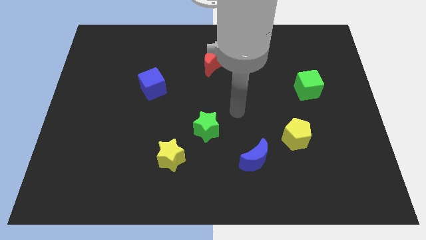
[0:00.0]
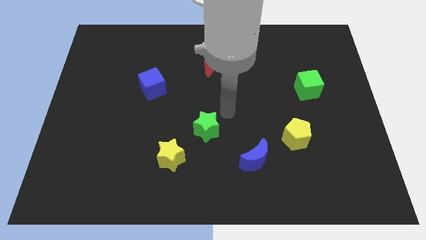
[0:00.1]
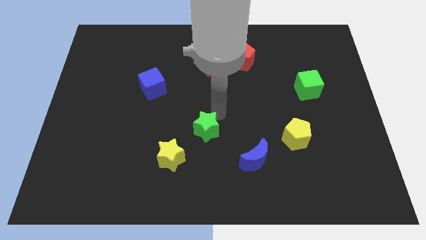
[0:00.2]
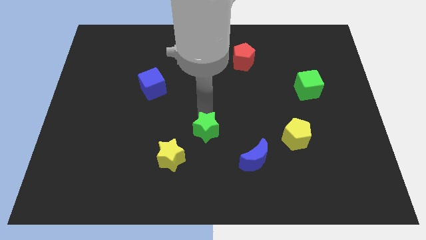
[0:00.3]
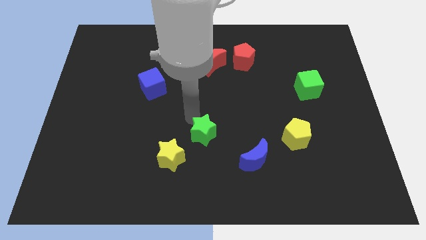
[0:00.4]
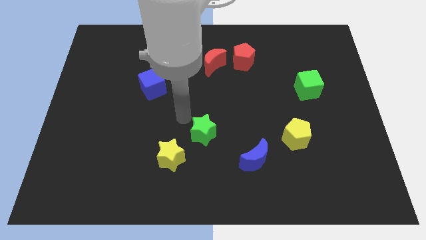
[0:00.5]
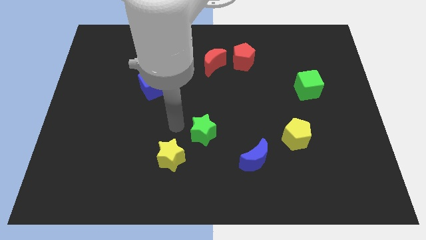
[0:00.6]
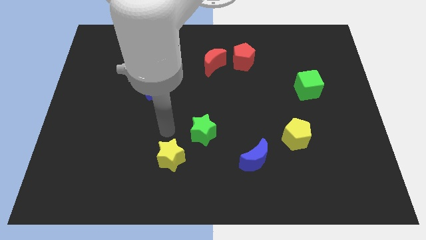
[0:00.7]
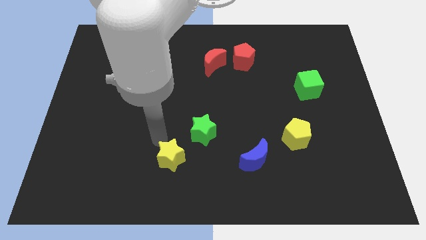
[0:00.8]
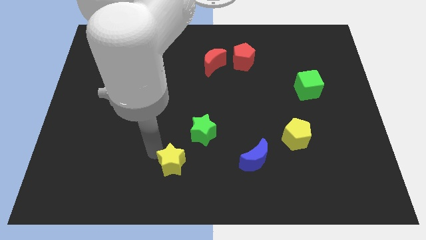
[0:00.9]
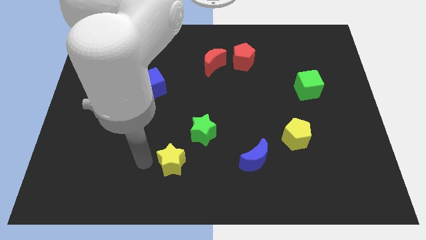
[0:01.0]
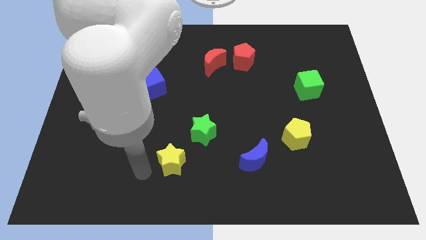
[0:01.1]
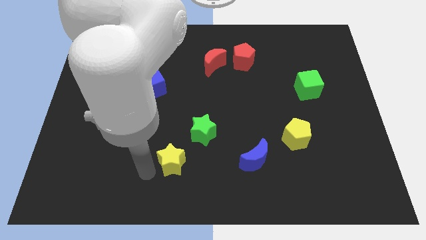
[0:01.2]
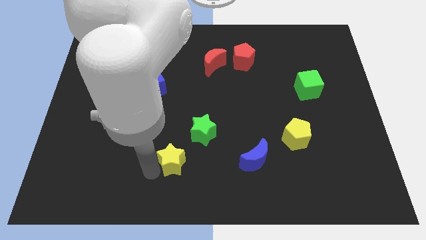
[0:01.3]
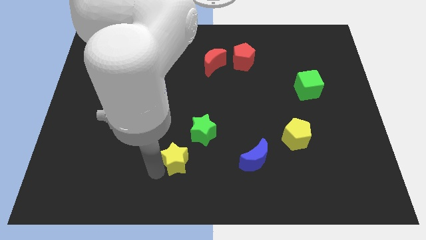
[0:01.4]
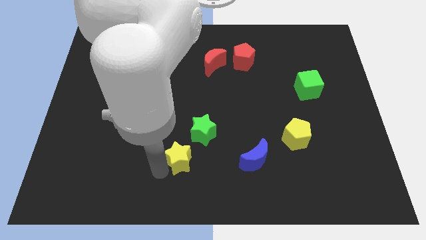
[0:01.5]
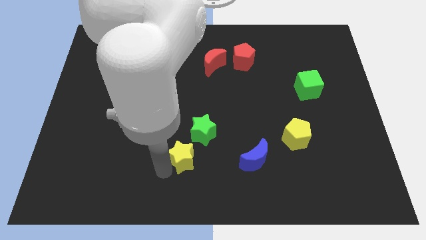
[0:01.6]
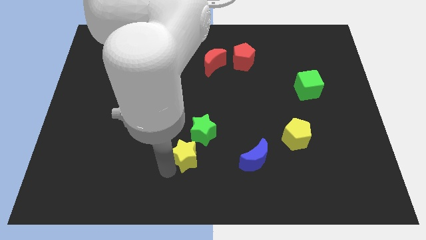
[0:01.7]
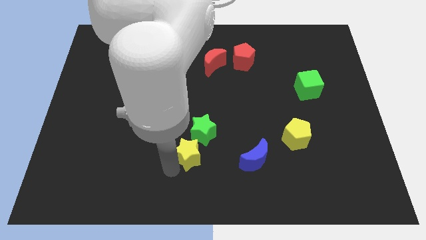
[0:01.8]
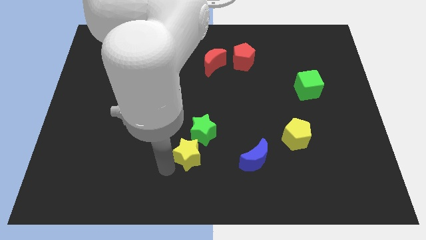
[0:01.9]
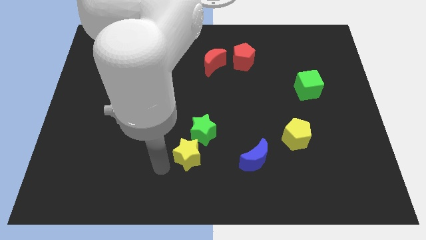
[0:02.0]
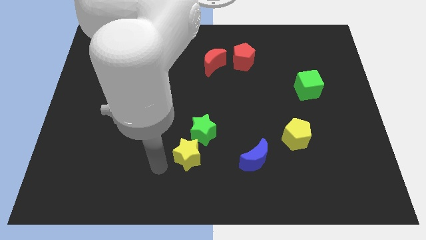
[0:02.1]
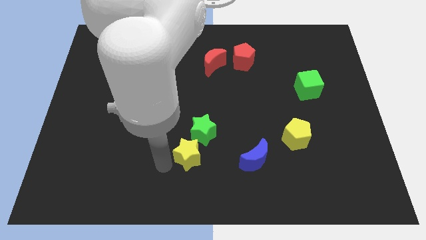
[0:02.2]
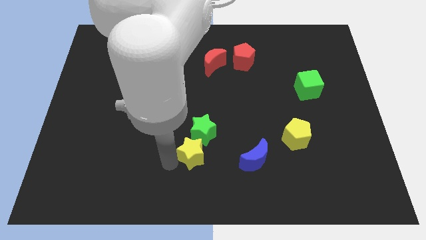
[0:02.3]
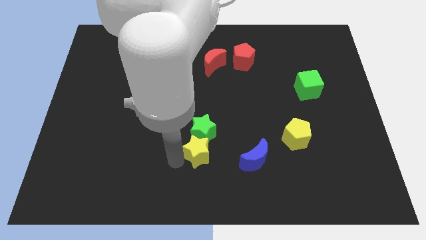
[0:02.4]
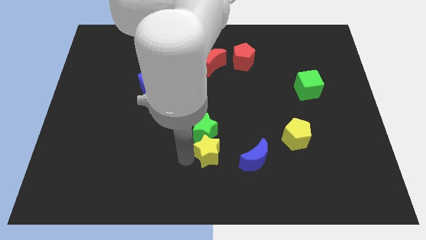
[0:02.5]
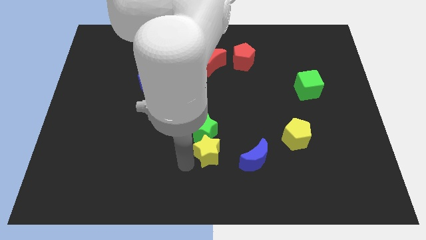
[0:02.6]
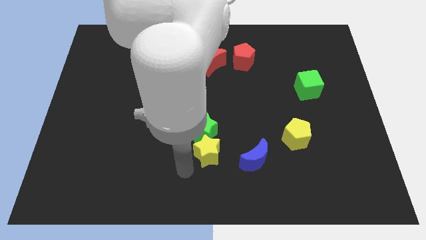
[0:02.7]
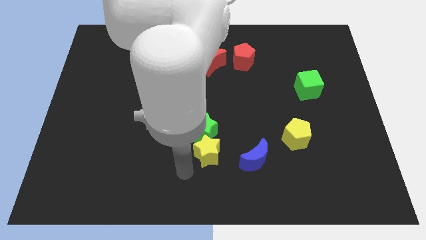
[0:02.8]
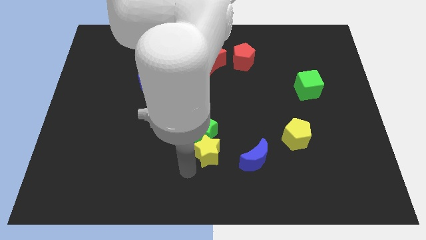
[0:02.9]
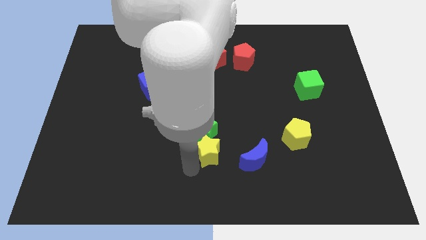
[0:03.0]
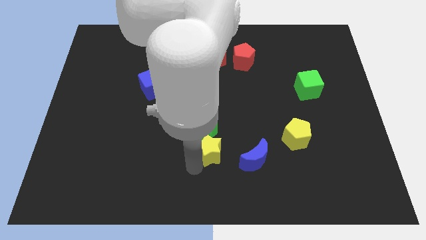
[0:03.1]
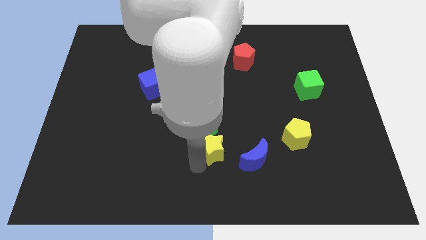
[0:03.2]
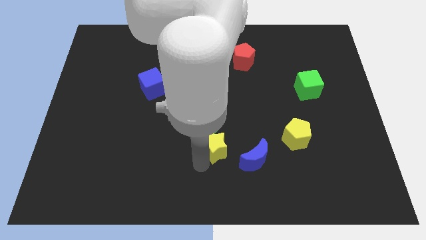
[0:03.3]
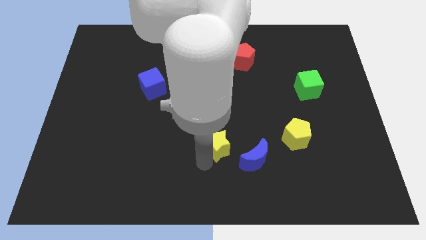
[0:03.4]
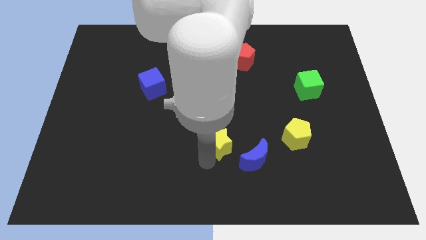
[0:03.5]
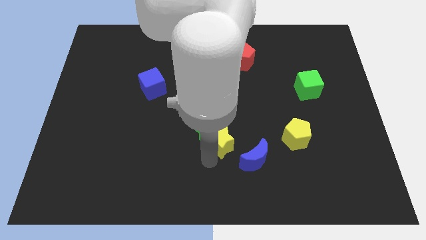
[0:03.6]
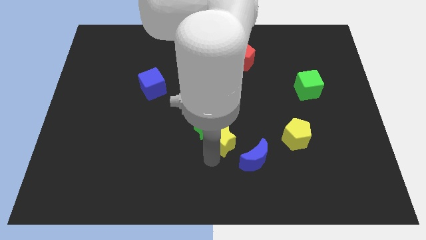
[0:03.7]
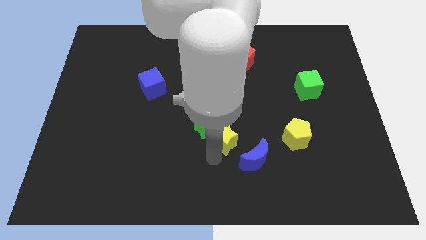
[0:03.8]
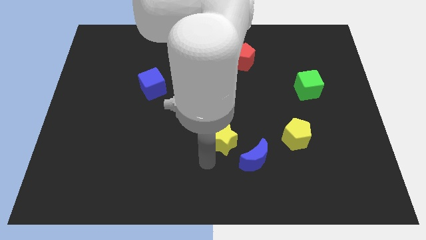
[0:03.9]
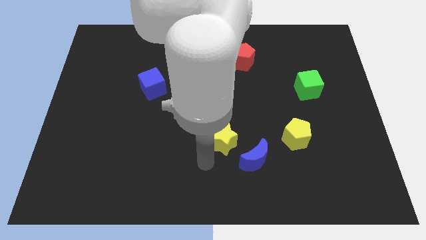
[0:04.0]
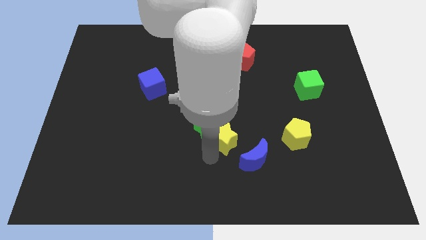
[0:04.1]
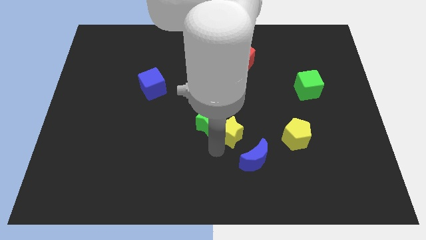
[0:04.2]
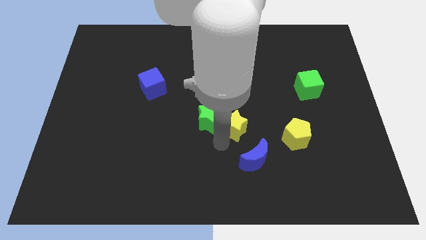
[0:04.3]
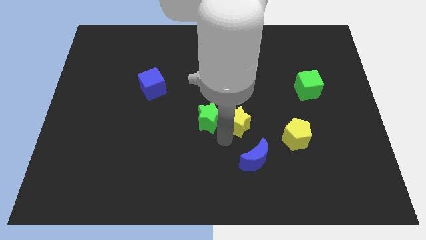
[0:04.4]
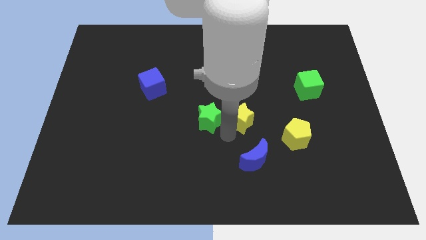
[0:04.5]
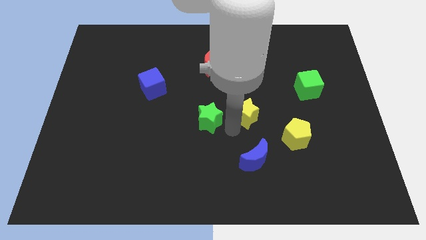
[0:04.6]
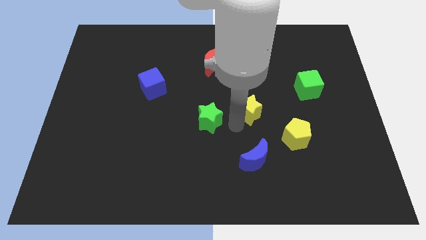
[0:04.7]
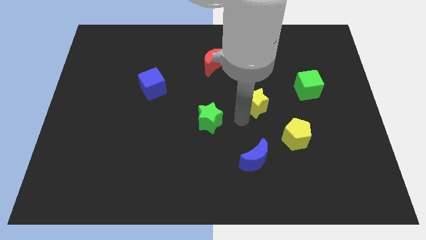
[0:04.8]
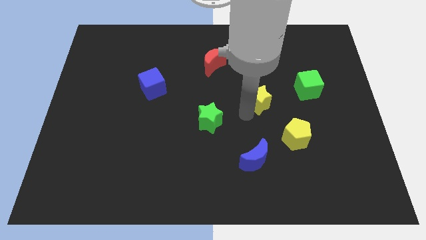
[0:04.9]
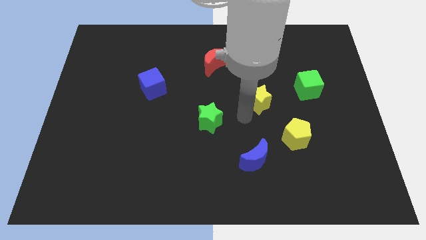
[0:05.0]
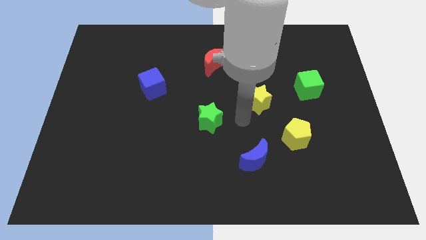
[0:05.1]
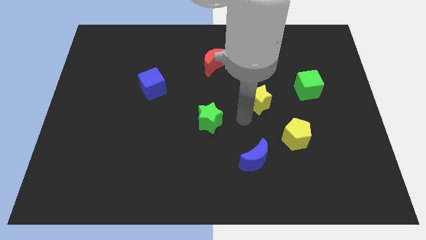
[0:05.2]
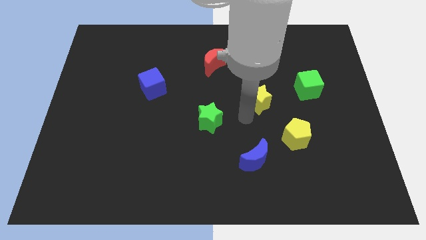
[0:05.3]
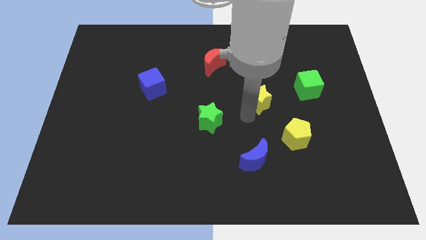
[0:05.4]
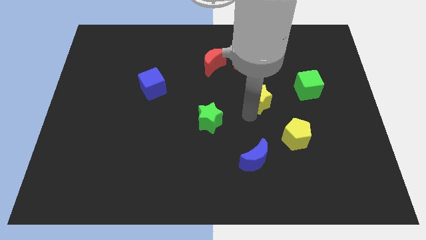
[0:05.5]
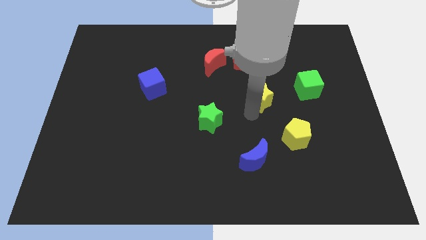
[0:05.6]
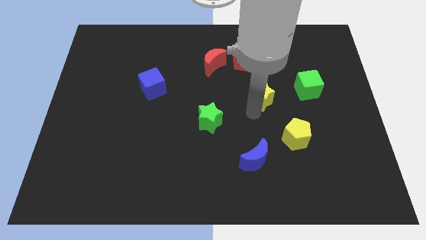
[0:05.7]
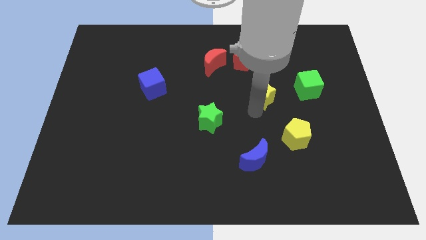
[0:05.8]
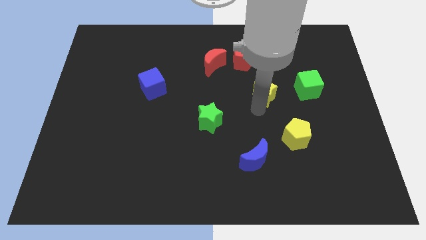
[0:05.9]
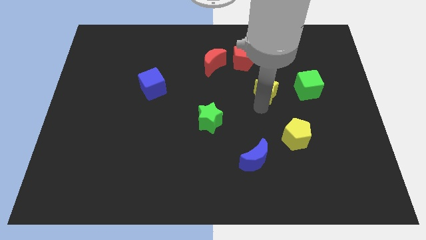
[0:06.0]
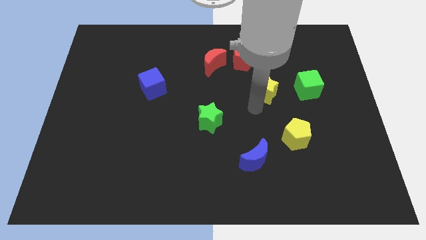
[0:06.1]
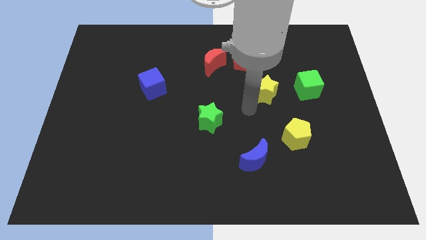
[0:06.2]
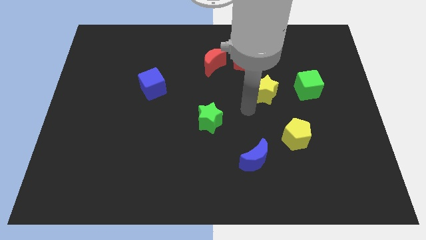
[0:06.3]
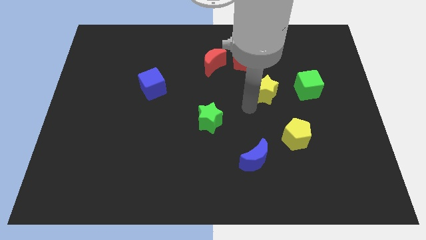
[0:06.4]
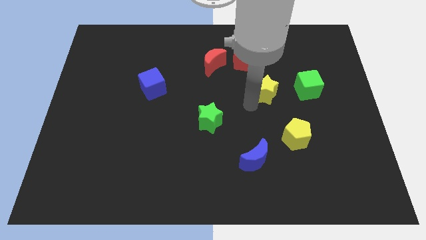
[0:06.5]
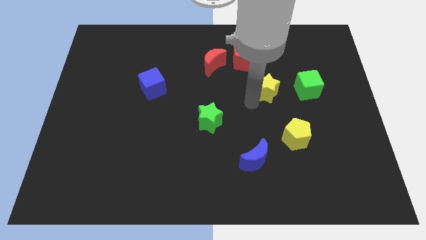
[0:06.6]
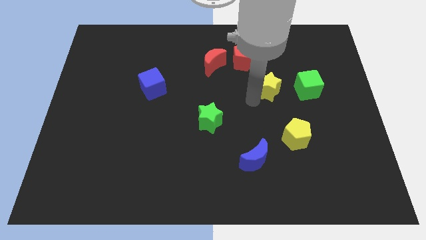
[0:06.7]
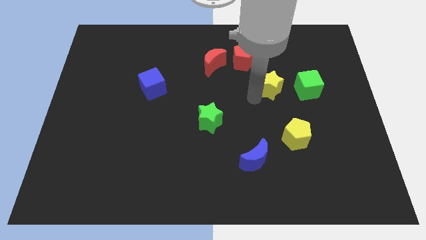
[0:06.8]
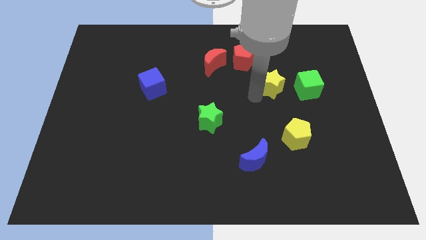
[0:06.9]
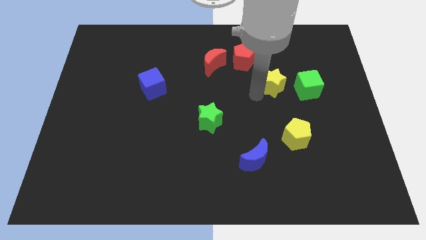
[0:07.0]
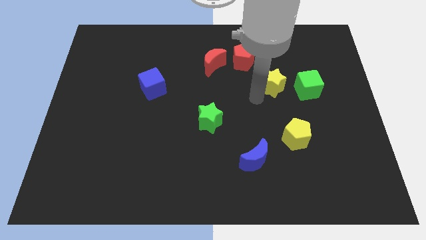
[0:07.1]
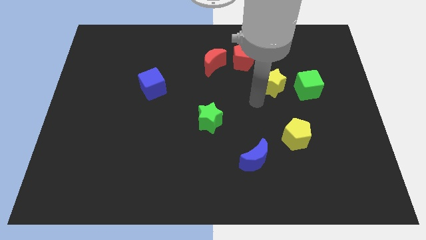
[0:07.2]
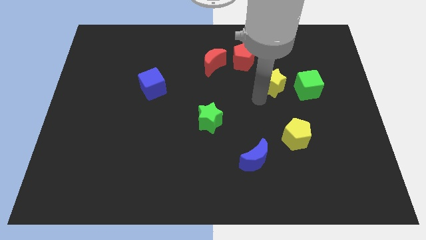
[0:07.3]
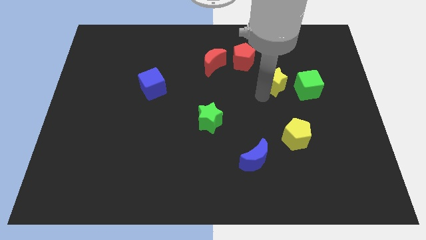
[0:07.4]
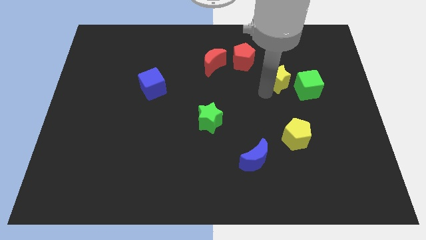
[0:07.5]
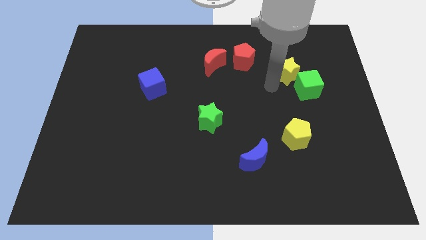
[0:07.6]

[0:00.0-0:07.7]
put the yellow star above the green cube

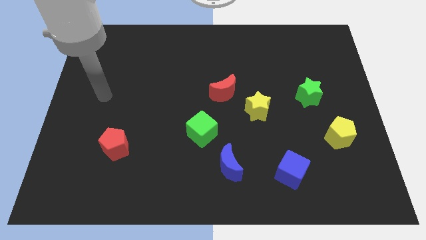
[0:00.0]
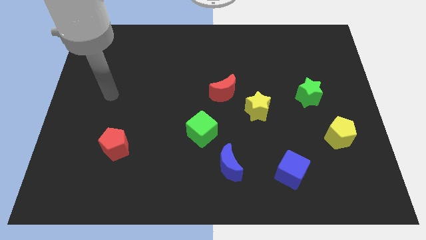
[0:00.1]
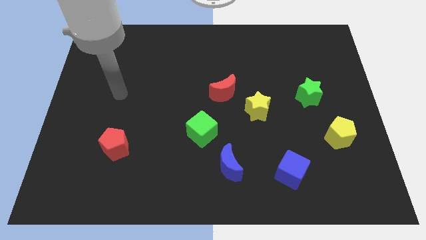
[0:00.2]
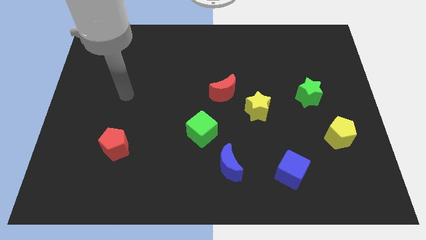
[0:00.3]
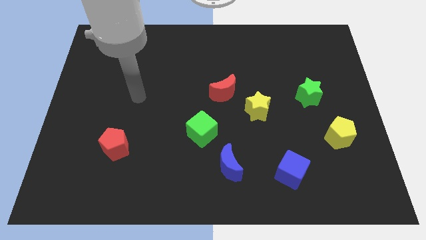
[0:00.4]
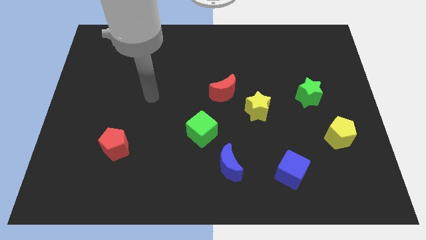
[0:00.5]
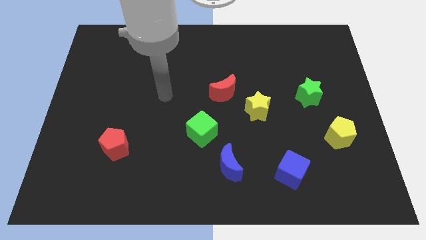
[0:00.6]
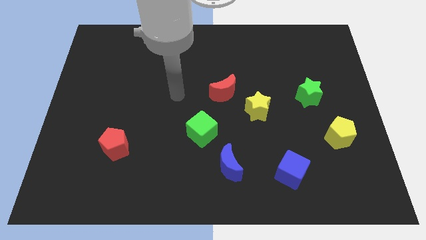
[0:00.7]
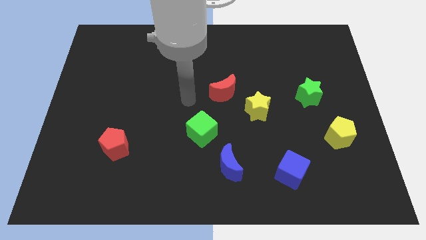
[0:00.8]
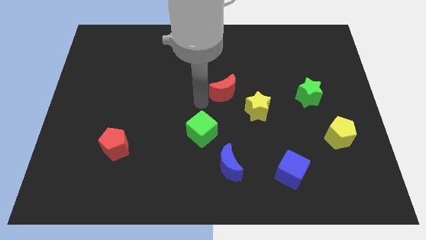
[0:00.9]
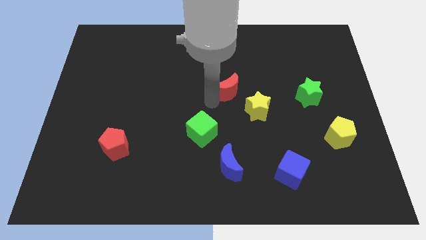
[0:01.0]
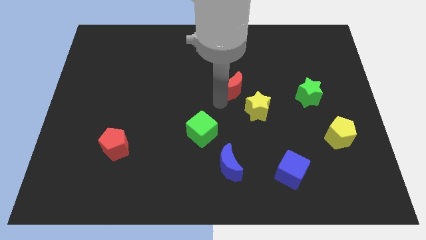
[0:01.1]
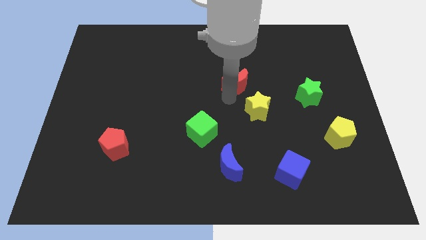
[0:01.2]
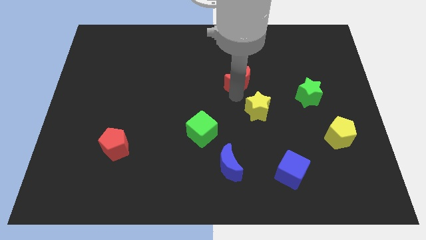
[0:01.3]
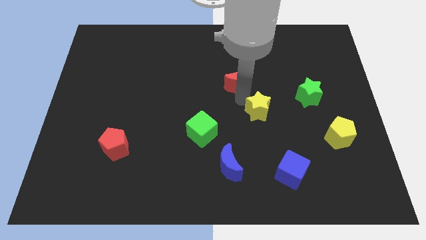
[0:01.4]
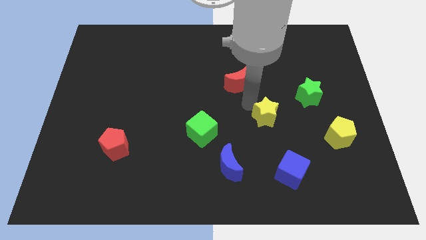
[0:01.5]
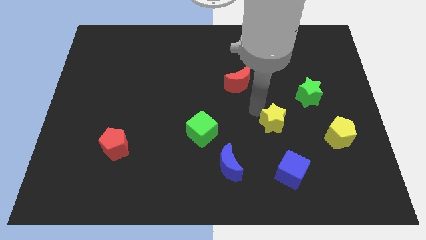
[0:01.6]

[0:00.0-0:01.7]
put the yellow star left of the yellow pentagon
